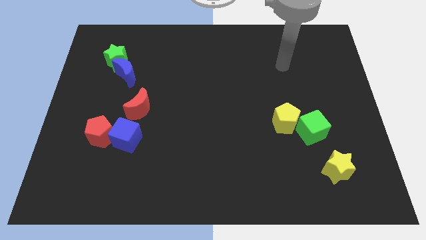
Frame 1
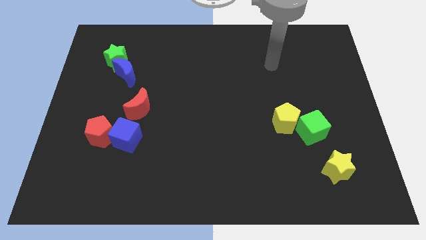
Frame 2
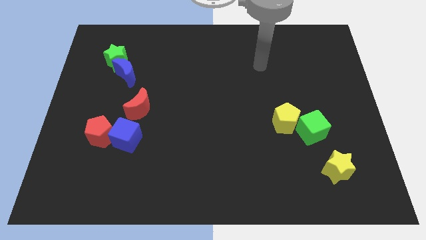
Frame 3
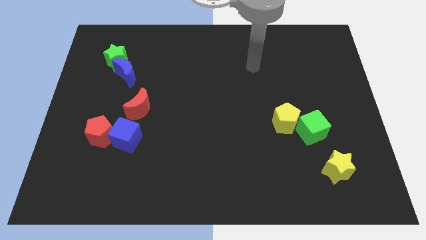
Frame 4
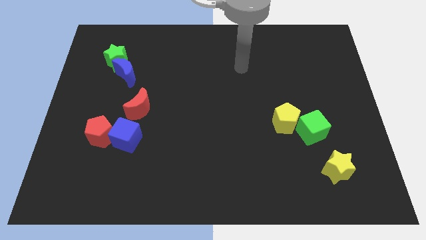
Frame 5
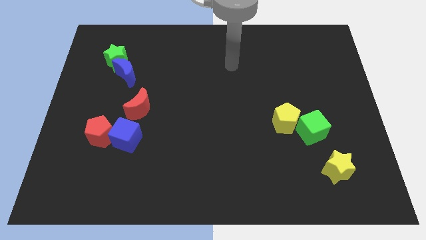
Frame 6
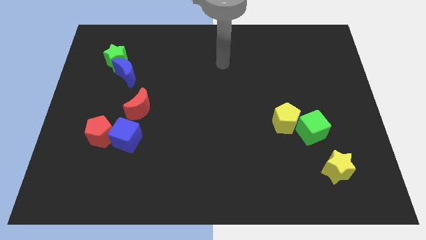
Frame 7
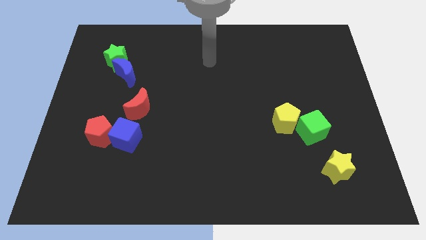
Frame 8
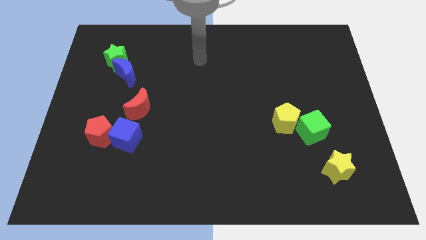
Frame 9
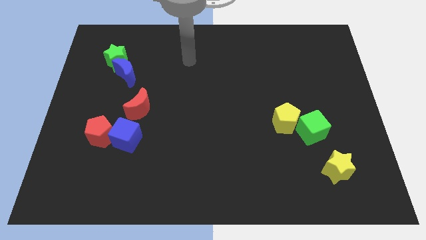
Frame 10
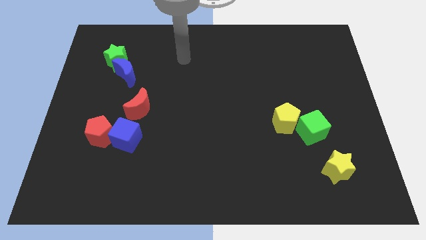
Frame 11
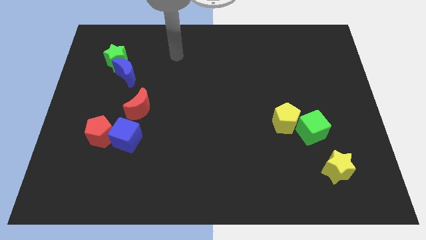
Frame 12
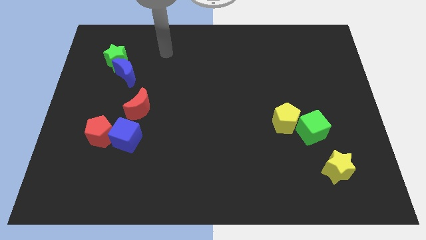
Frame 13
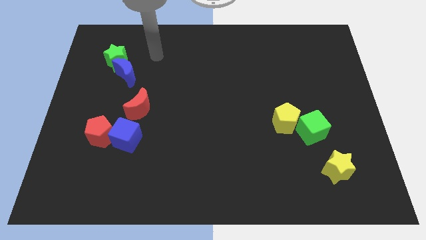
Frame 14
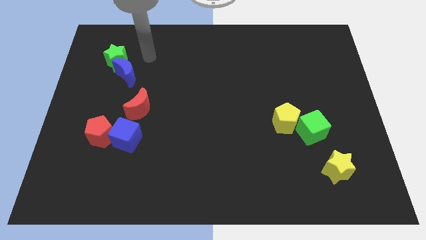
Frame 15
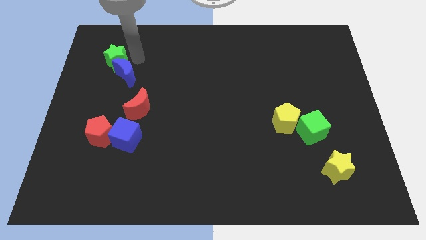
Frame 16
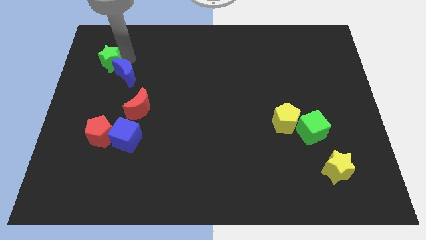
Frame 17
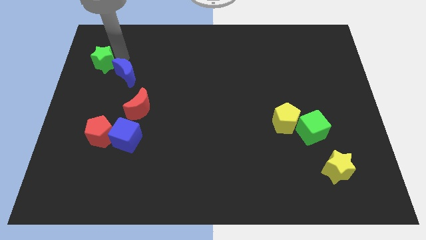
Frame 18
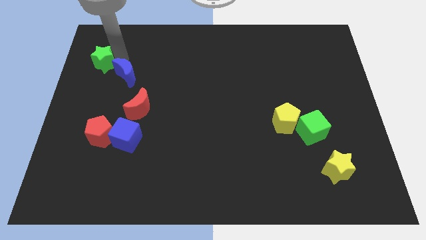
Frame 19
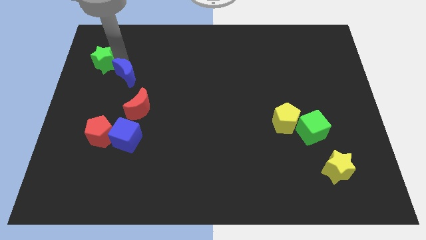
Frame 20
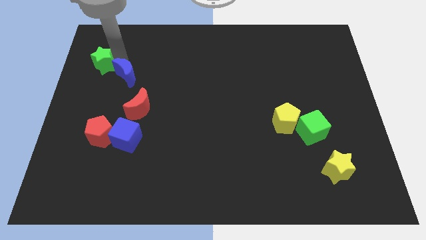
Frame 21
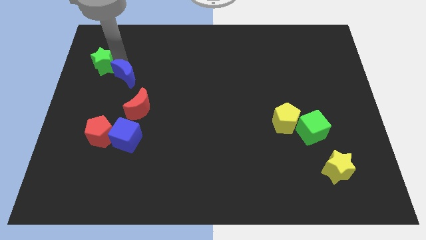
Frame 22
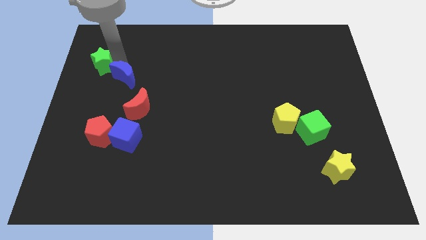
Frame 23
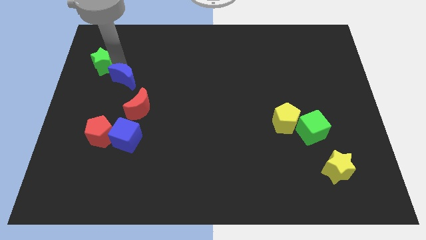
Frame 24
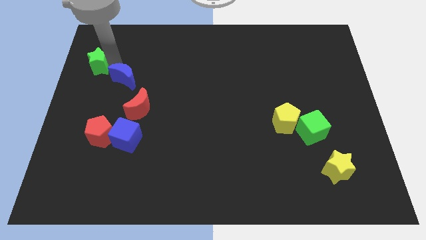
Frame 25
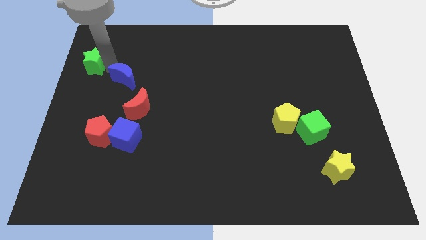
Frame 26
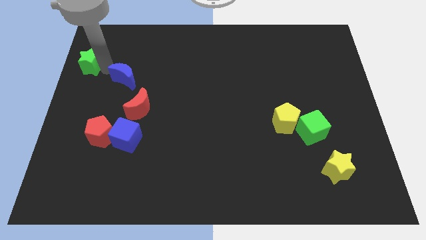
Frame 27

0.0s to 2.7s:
move the blue moon away from the green star

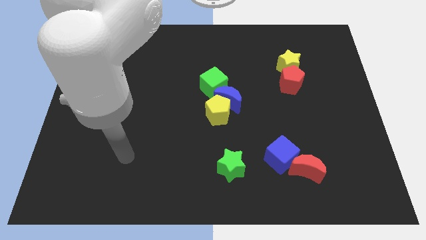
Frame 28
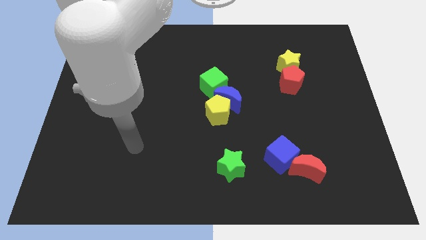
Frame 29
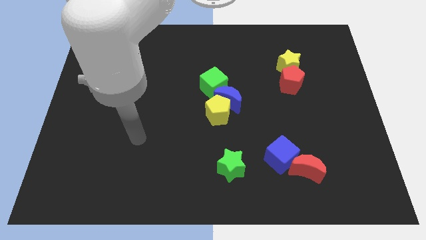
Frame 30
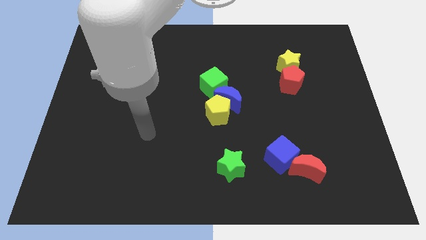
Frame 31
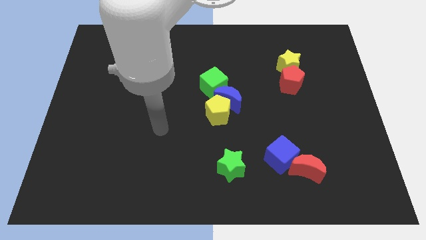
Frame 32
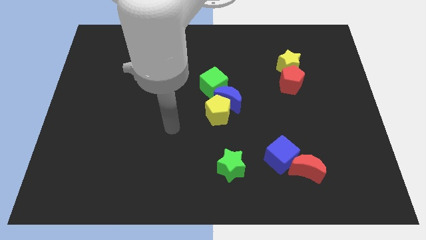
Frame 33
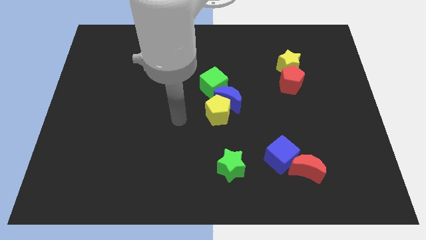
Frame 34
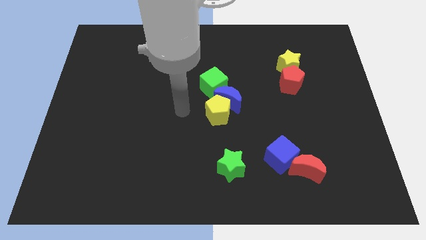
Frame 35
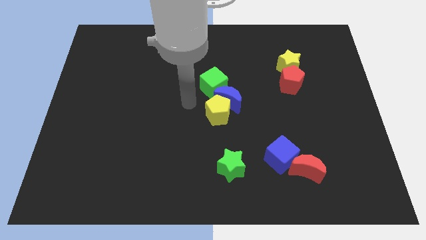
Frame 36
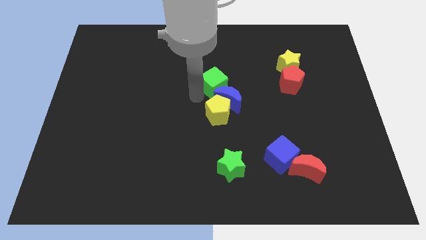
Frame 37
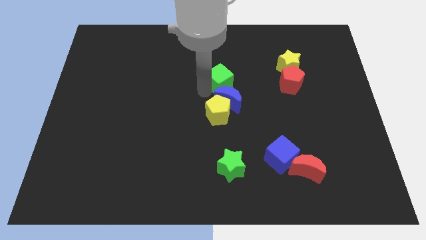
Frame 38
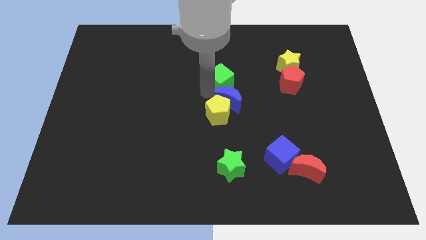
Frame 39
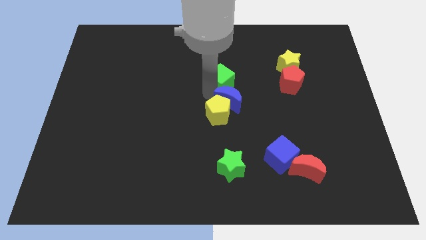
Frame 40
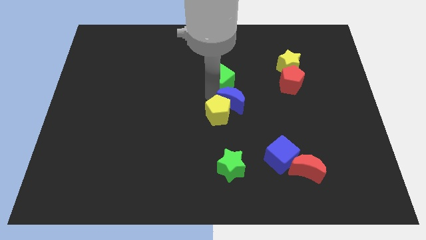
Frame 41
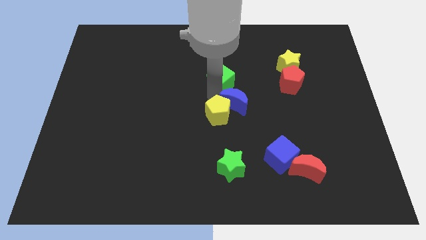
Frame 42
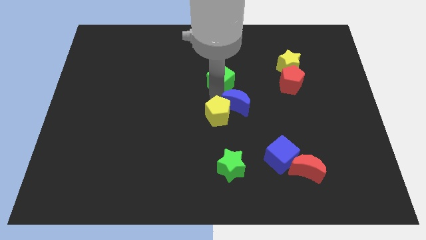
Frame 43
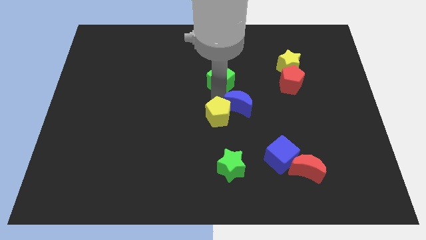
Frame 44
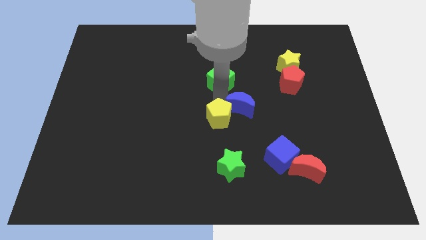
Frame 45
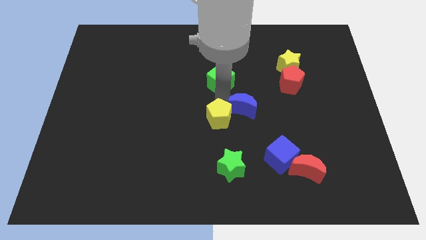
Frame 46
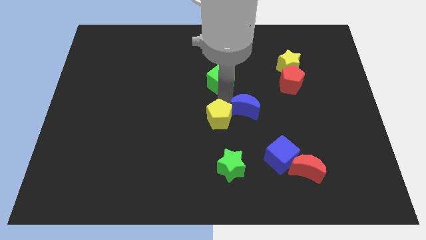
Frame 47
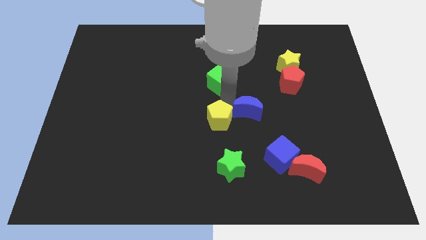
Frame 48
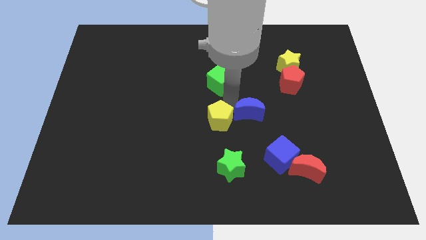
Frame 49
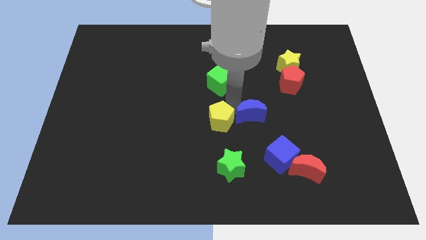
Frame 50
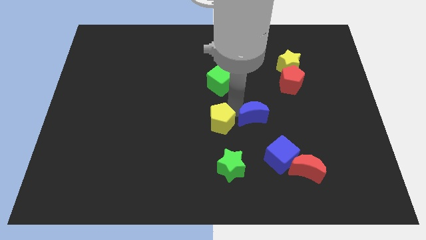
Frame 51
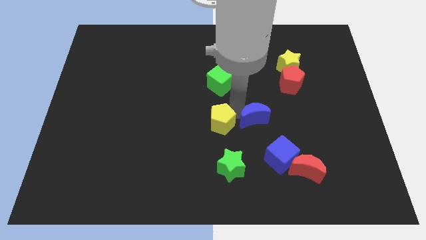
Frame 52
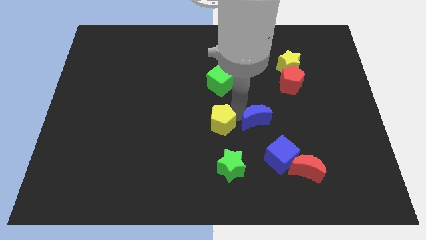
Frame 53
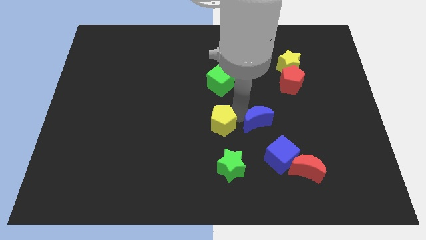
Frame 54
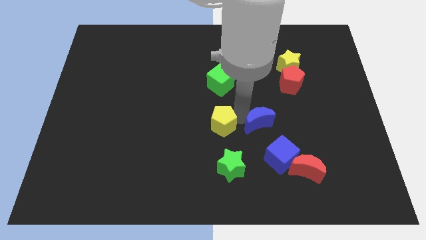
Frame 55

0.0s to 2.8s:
move the blue moon away from the yellow pentagon and green cube

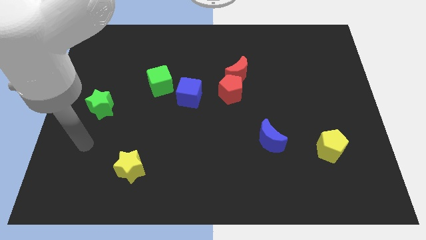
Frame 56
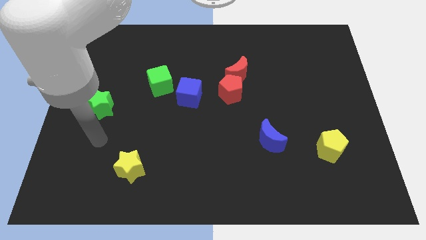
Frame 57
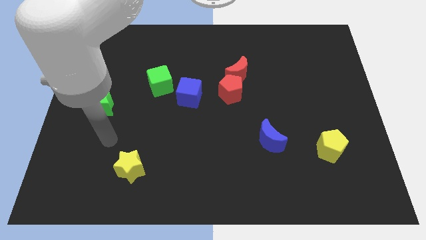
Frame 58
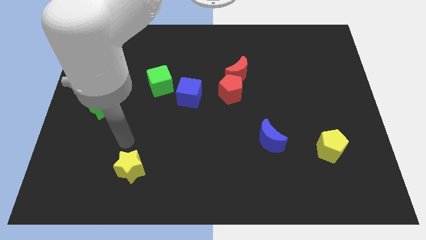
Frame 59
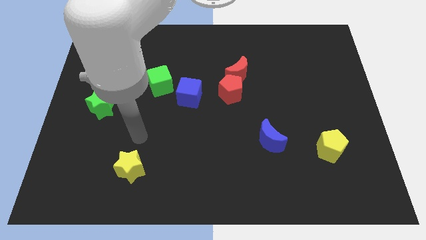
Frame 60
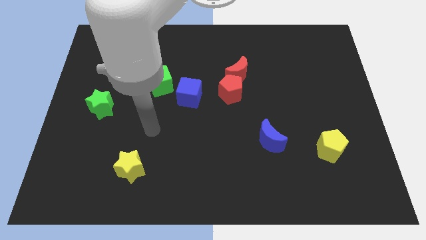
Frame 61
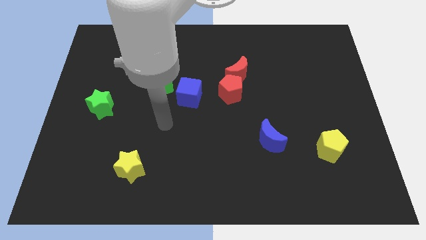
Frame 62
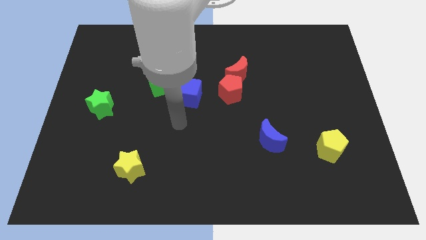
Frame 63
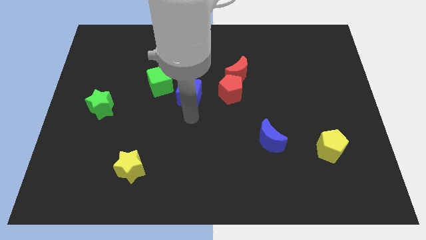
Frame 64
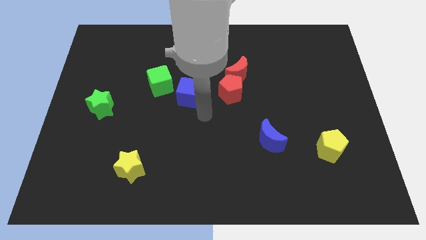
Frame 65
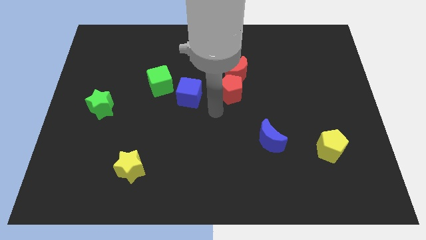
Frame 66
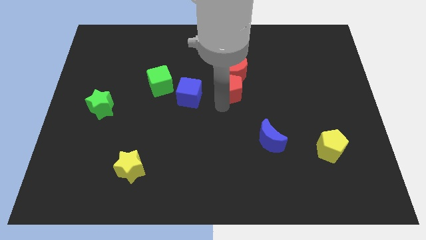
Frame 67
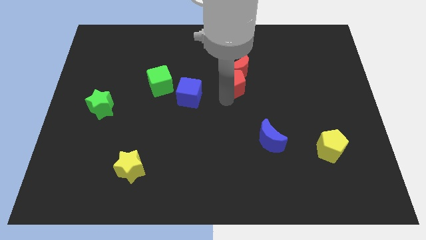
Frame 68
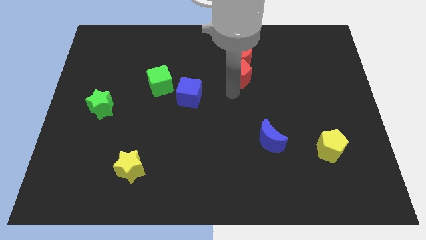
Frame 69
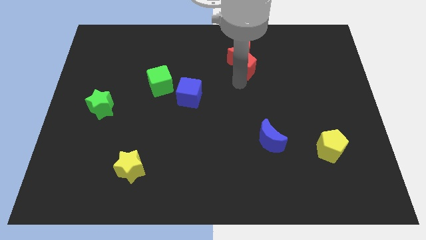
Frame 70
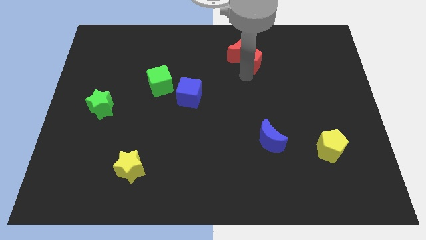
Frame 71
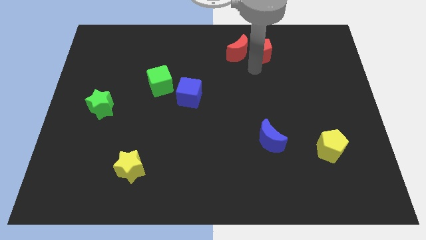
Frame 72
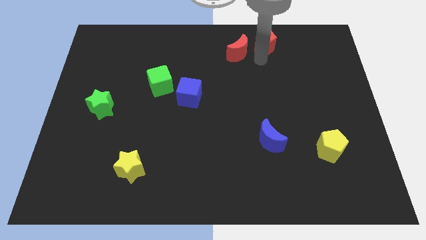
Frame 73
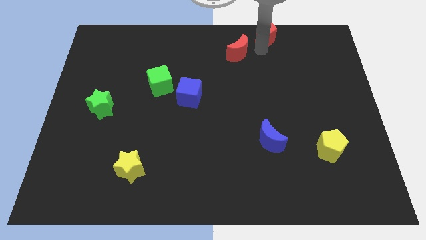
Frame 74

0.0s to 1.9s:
pull the red moon apart from the red pentagon

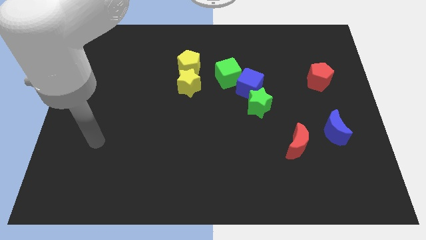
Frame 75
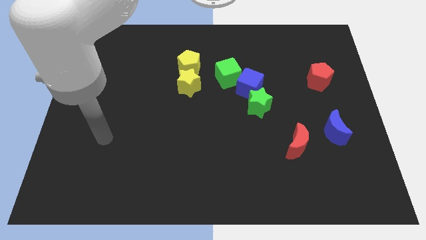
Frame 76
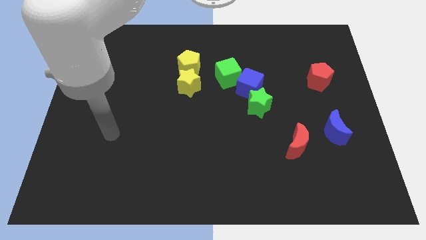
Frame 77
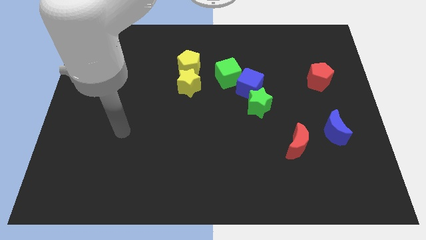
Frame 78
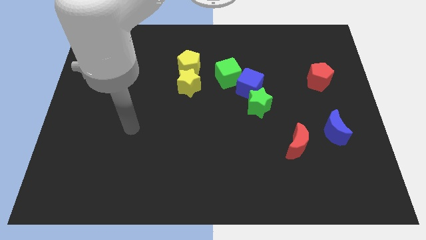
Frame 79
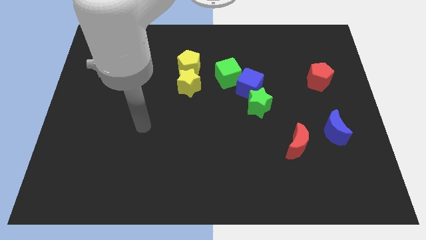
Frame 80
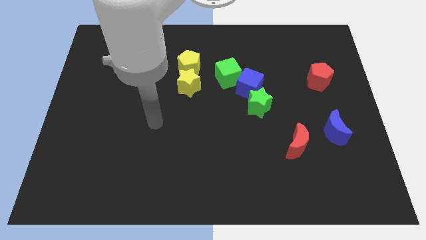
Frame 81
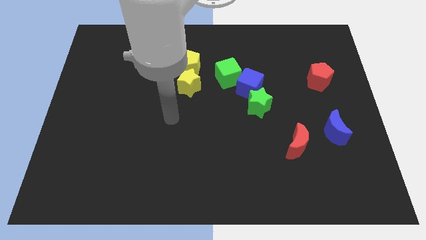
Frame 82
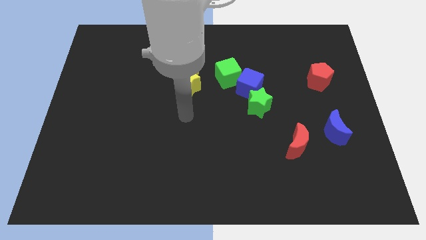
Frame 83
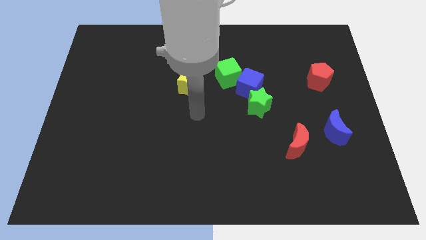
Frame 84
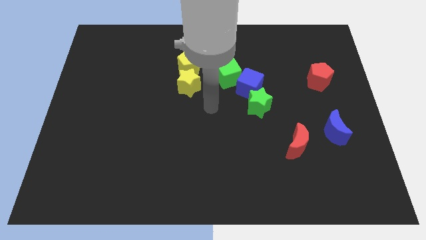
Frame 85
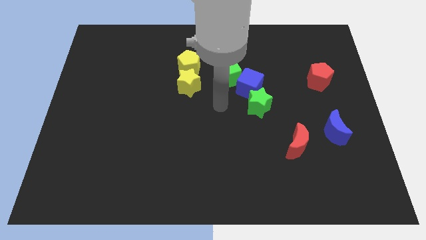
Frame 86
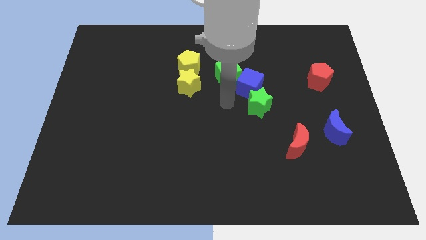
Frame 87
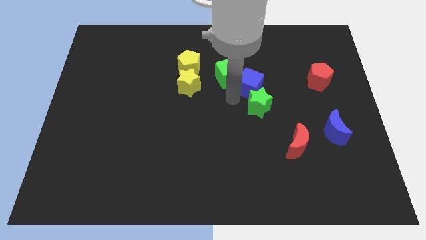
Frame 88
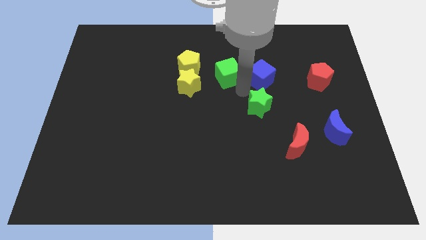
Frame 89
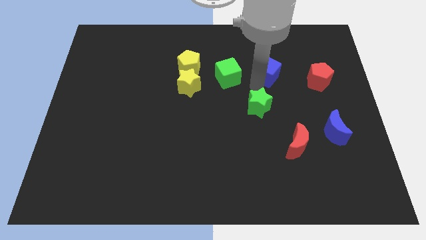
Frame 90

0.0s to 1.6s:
pull the green star apart from the blue cube

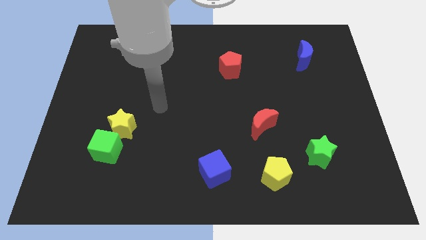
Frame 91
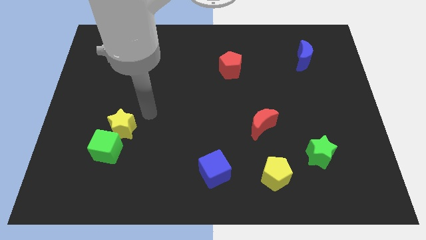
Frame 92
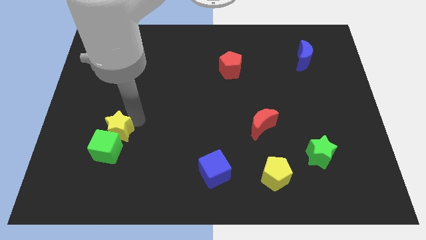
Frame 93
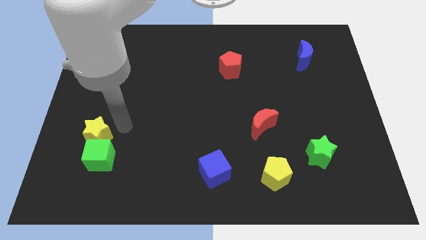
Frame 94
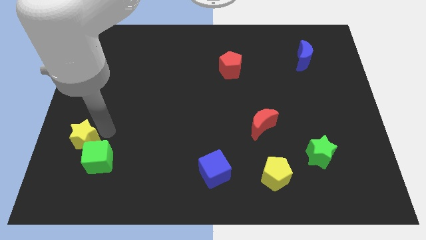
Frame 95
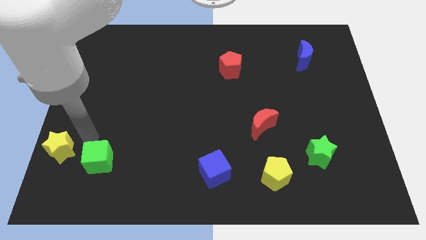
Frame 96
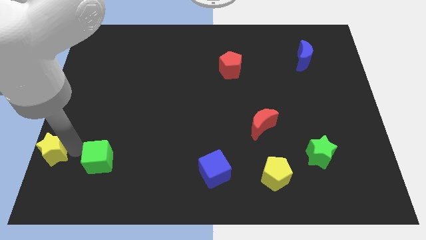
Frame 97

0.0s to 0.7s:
separate the green cube from the yellow star
